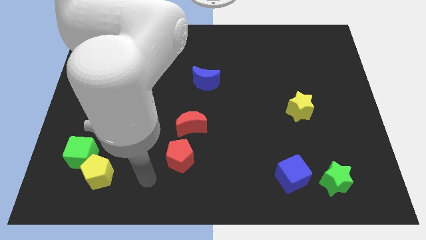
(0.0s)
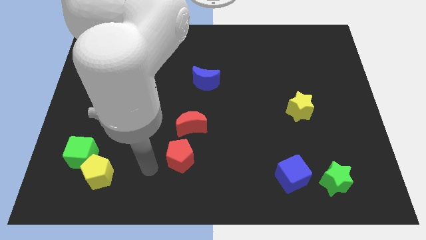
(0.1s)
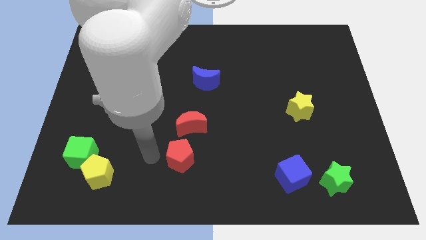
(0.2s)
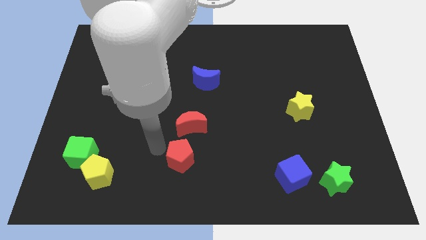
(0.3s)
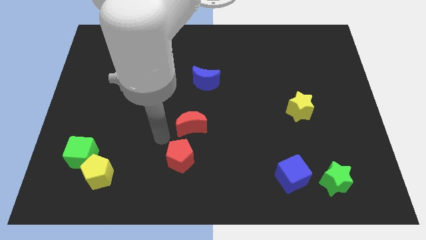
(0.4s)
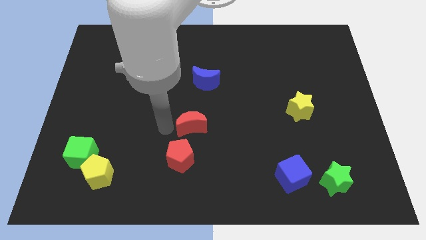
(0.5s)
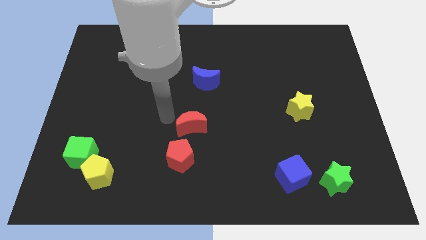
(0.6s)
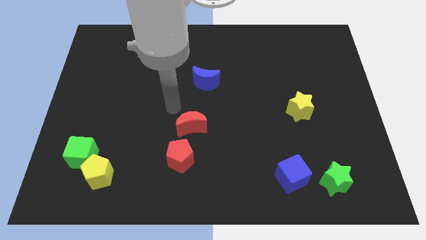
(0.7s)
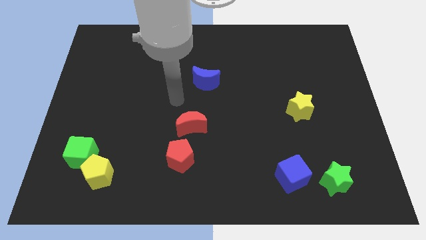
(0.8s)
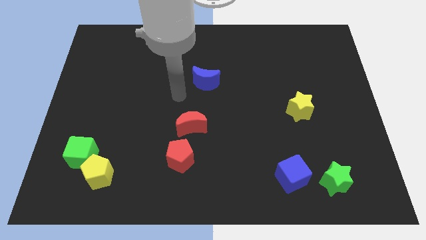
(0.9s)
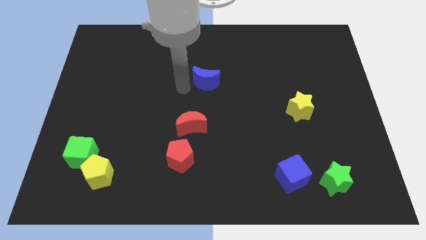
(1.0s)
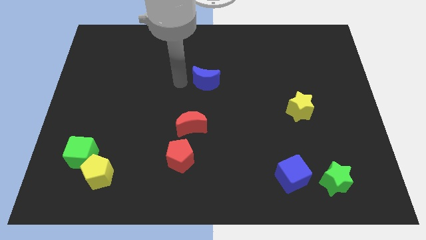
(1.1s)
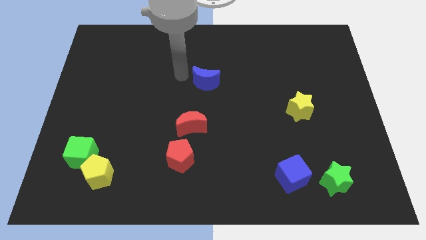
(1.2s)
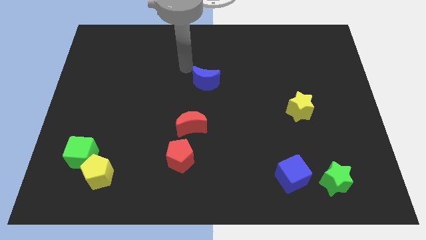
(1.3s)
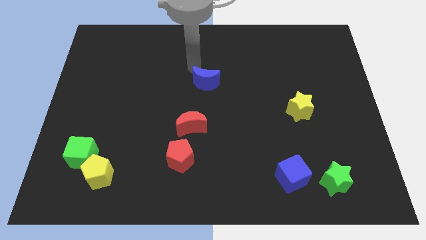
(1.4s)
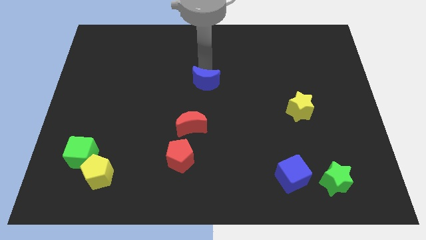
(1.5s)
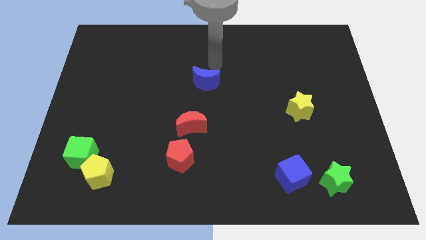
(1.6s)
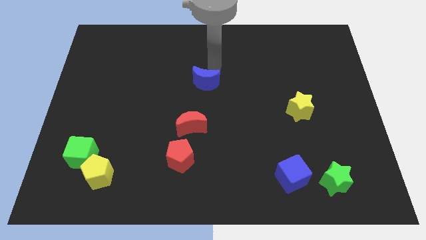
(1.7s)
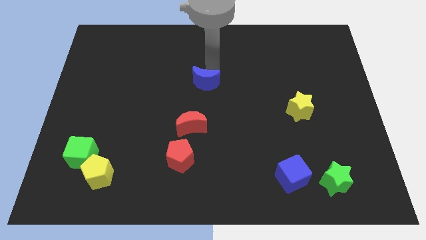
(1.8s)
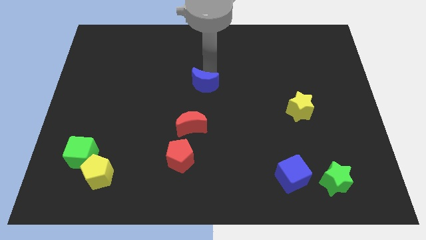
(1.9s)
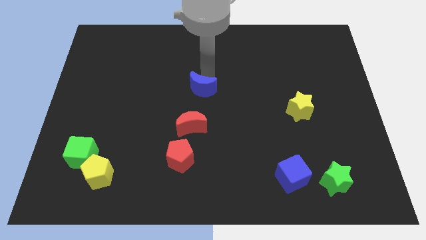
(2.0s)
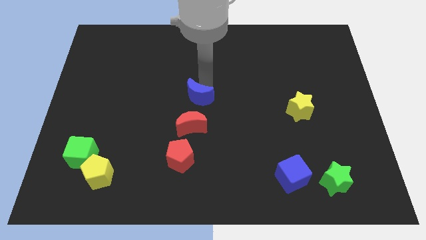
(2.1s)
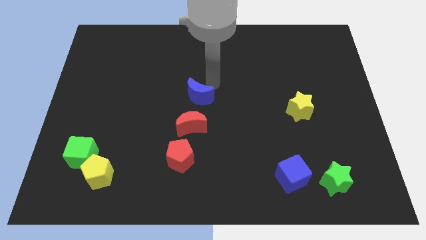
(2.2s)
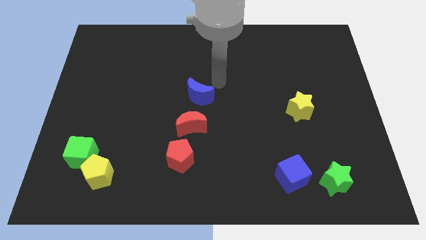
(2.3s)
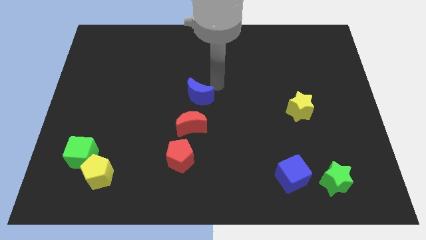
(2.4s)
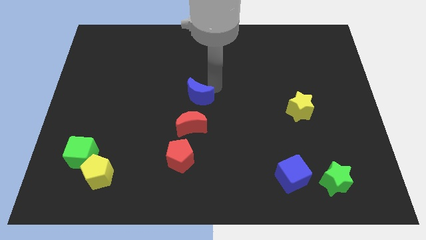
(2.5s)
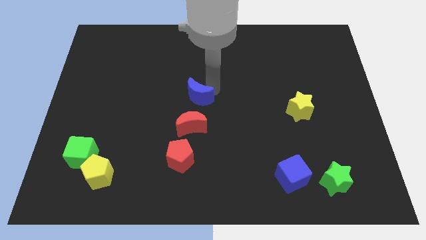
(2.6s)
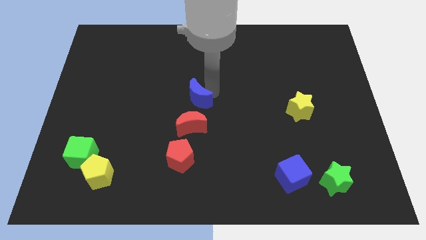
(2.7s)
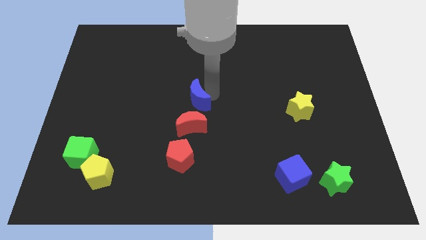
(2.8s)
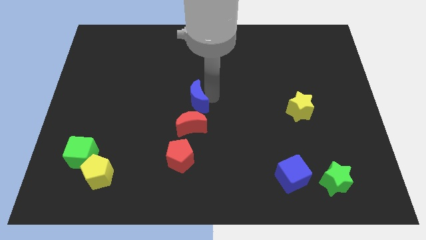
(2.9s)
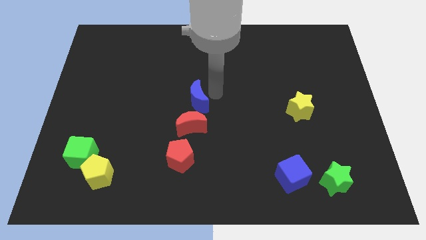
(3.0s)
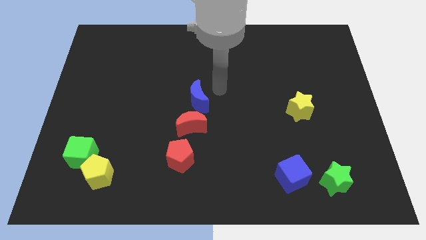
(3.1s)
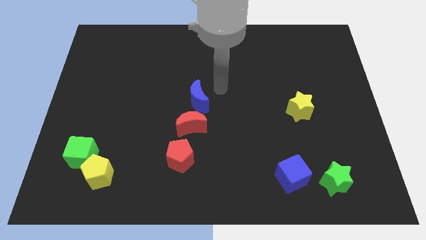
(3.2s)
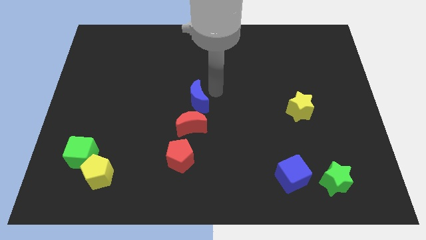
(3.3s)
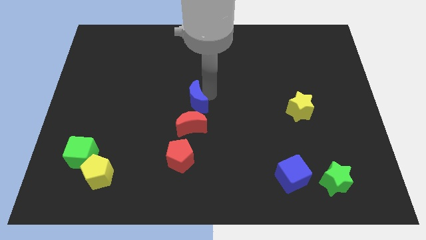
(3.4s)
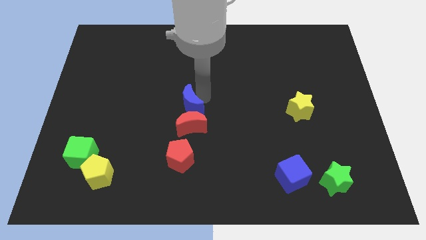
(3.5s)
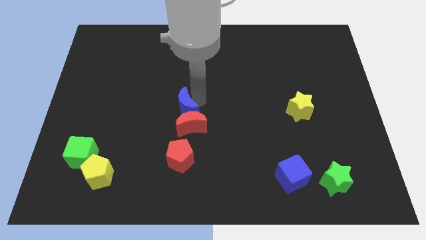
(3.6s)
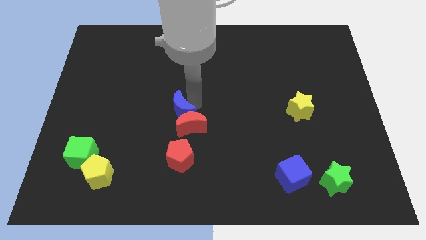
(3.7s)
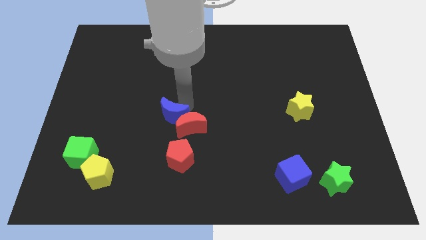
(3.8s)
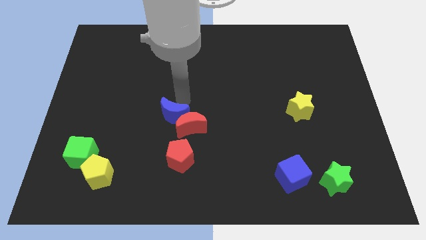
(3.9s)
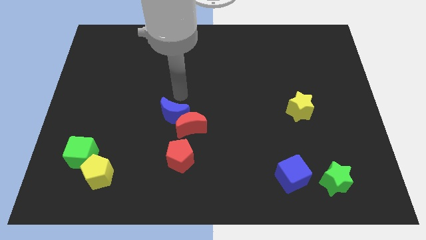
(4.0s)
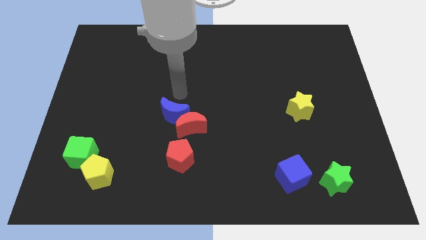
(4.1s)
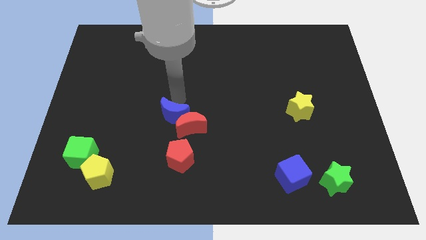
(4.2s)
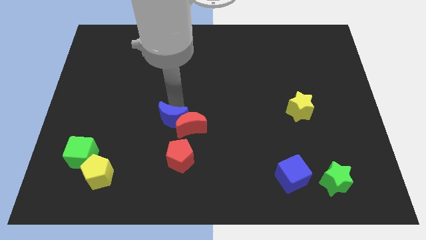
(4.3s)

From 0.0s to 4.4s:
put the blue moon to the bottom left of the red moon

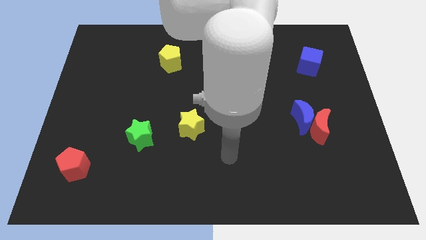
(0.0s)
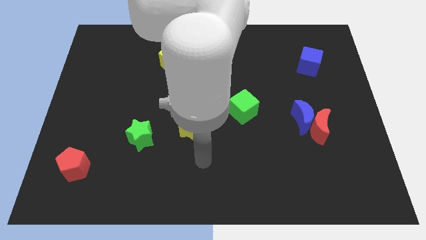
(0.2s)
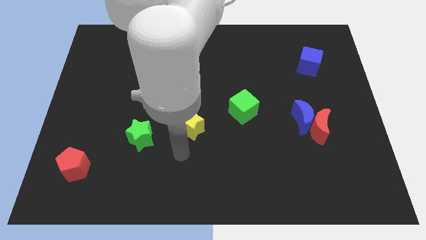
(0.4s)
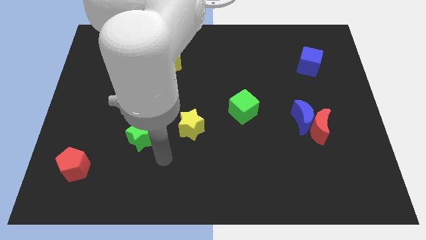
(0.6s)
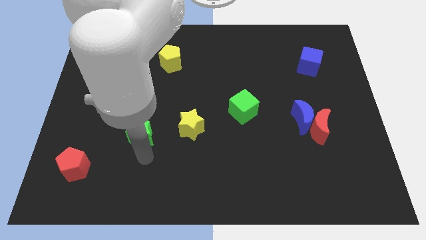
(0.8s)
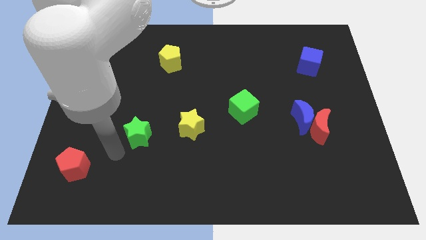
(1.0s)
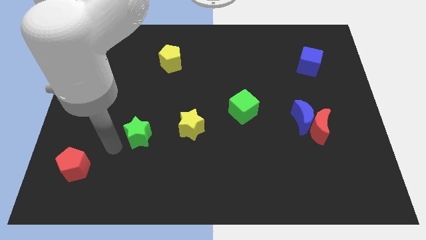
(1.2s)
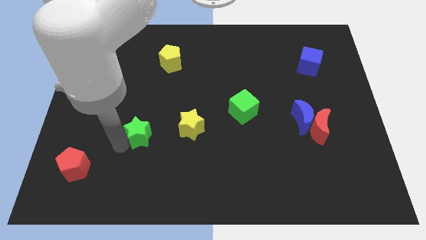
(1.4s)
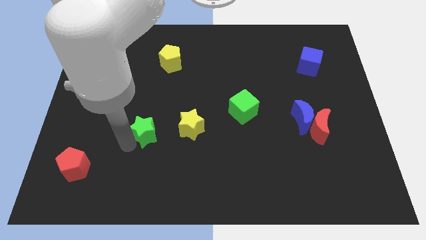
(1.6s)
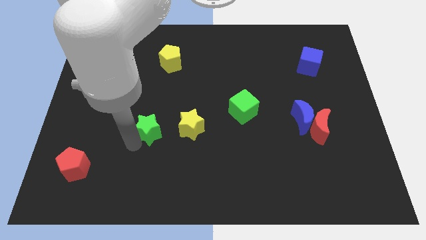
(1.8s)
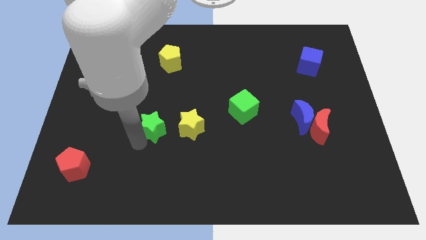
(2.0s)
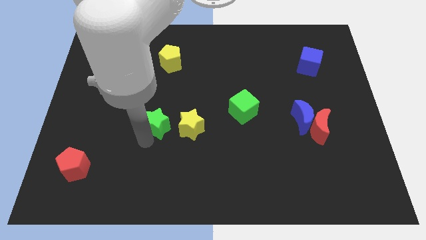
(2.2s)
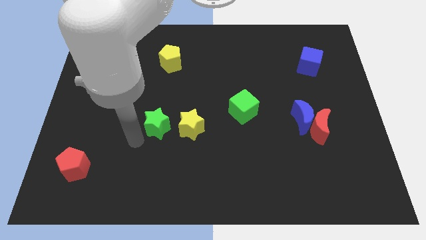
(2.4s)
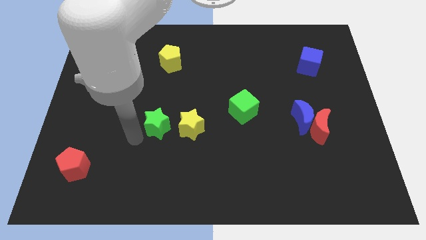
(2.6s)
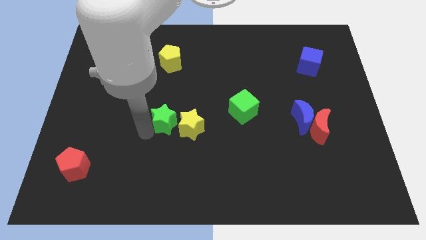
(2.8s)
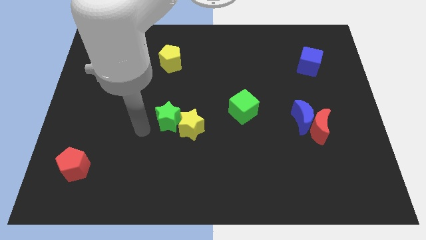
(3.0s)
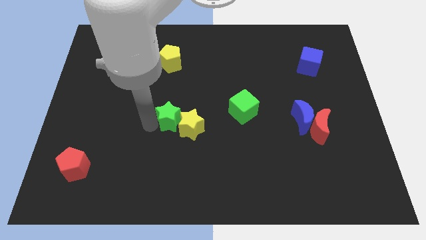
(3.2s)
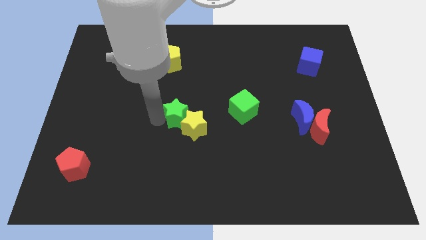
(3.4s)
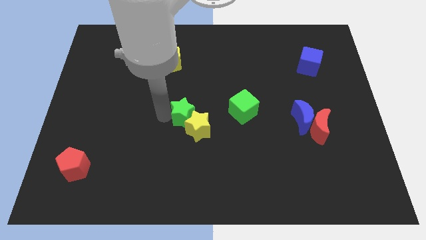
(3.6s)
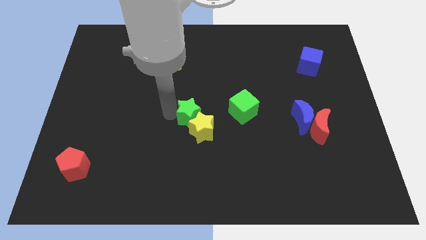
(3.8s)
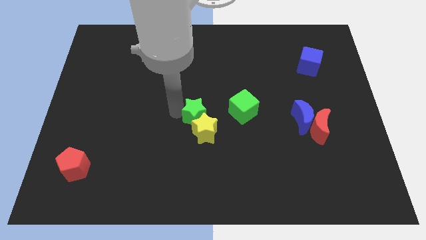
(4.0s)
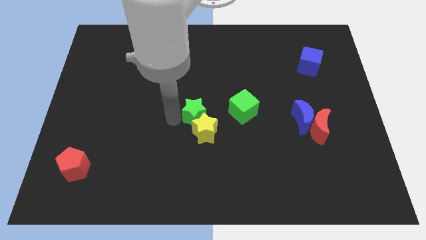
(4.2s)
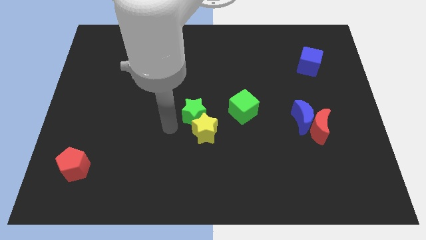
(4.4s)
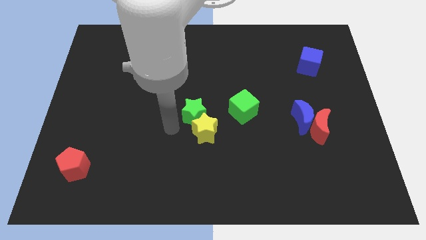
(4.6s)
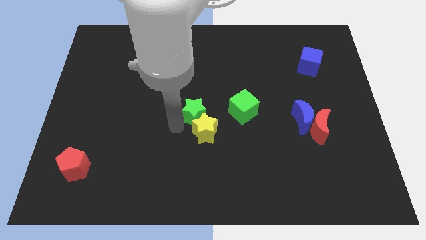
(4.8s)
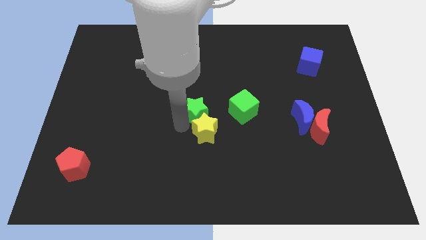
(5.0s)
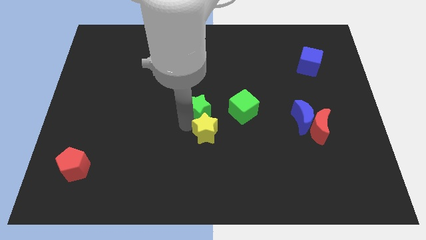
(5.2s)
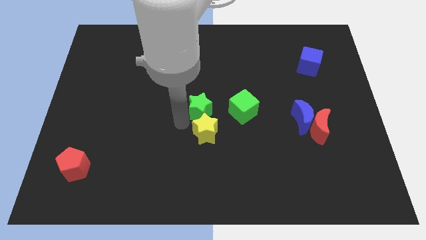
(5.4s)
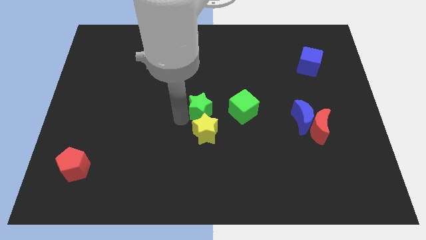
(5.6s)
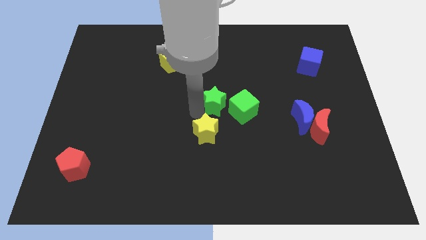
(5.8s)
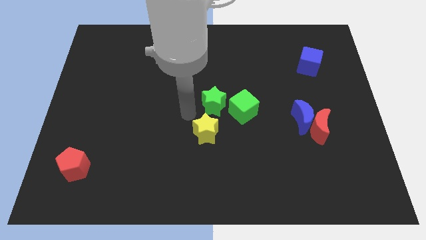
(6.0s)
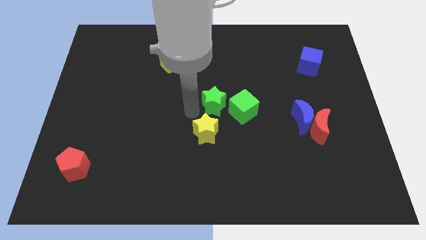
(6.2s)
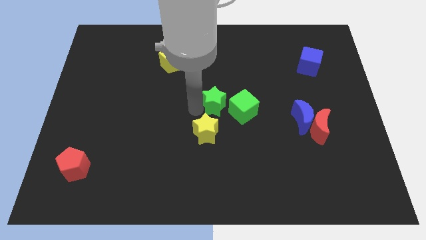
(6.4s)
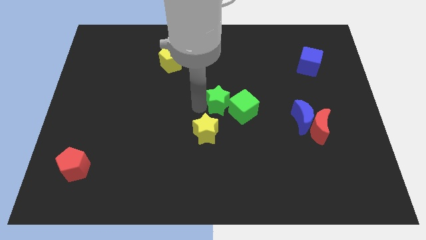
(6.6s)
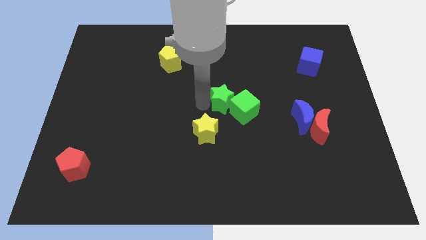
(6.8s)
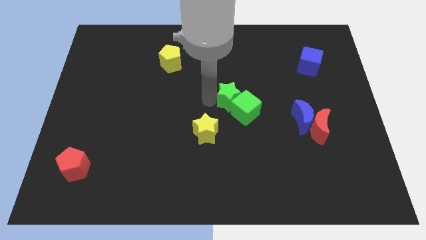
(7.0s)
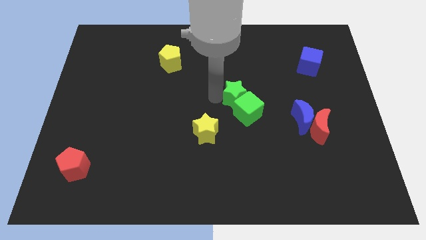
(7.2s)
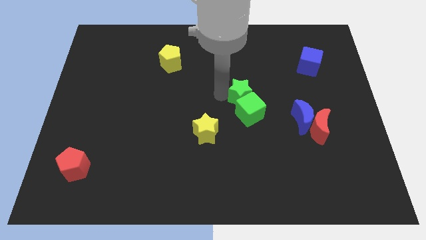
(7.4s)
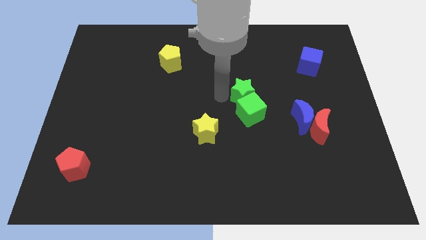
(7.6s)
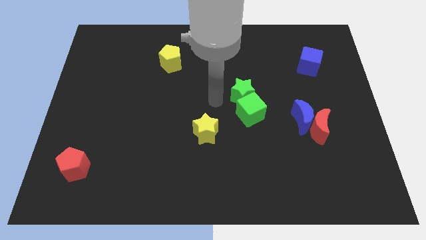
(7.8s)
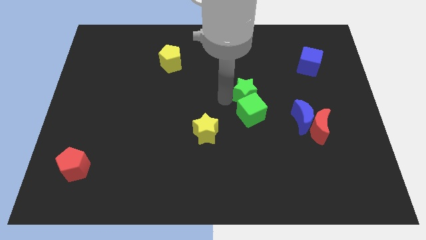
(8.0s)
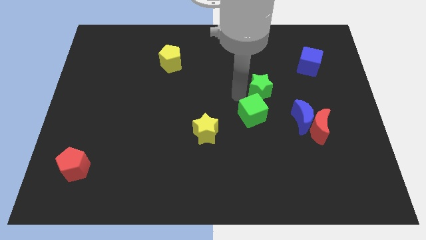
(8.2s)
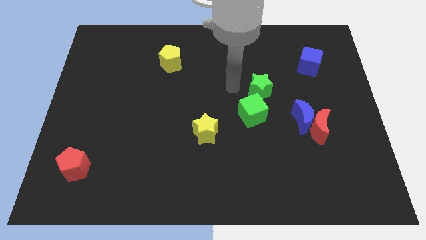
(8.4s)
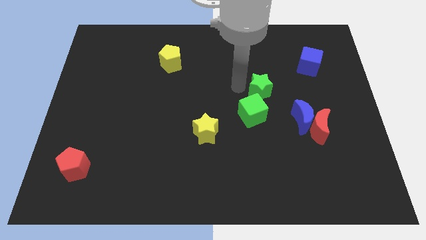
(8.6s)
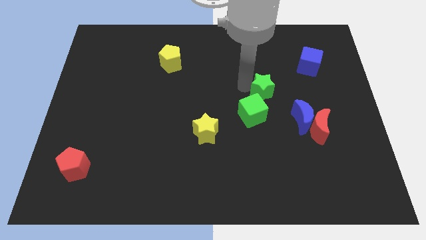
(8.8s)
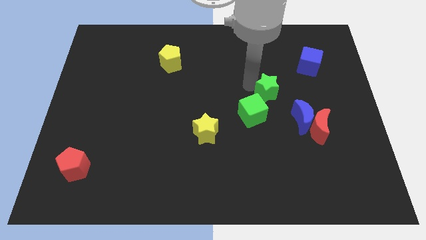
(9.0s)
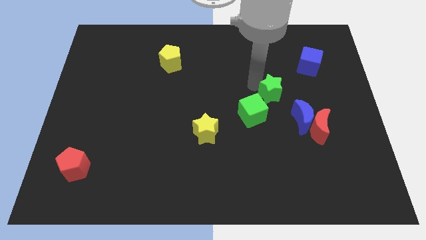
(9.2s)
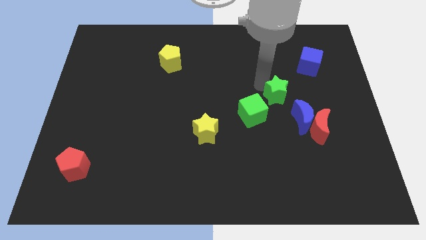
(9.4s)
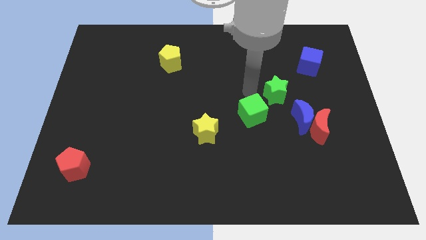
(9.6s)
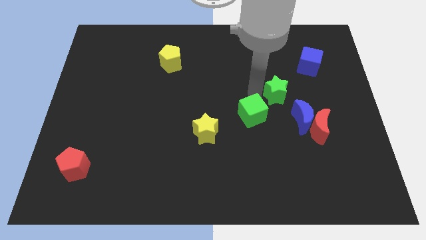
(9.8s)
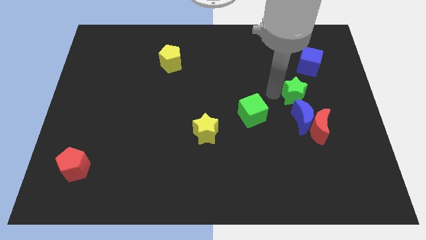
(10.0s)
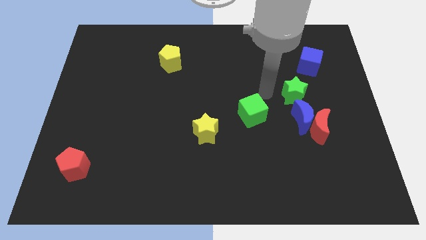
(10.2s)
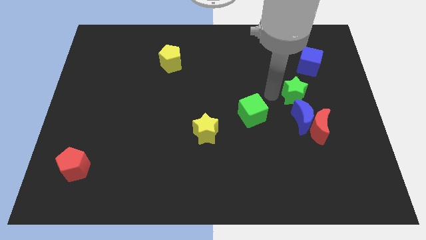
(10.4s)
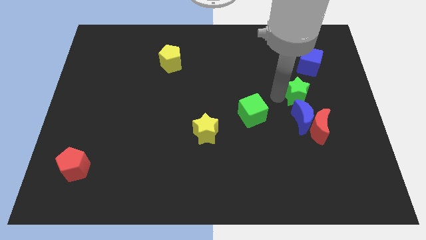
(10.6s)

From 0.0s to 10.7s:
slide the green star to the bottom side of the blue cube
